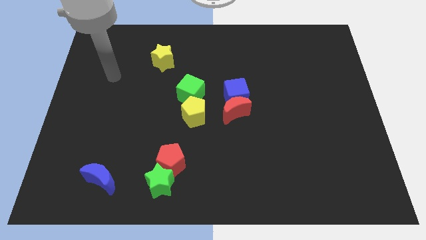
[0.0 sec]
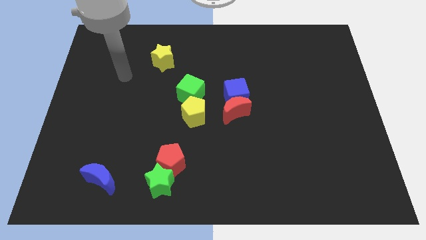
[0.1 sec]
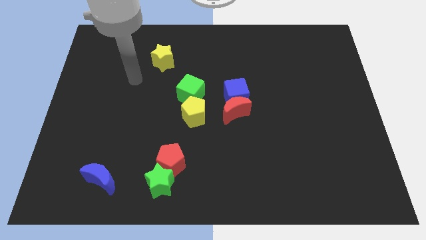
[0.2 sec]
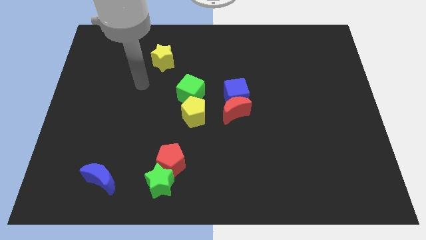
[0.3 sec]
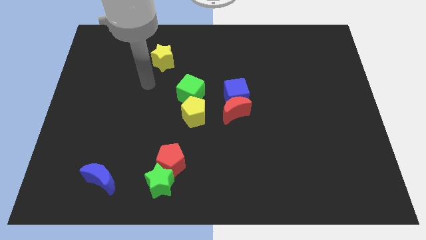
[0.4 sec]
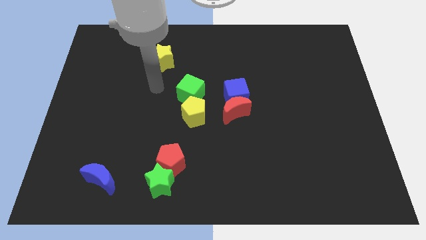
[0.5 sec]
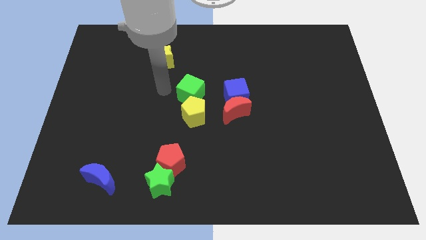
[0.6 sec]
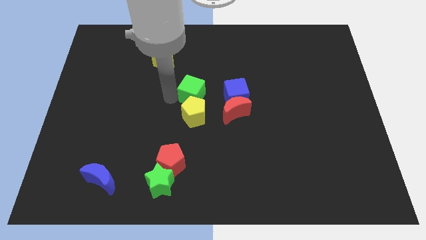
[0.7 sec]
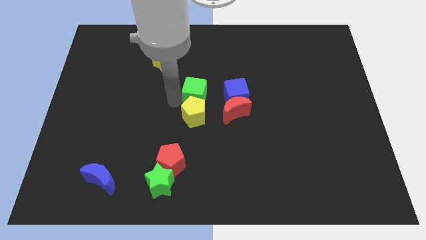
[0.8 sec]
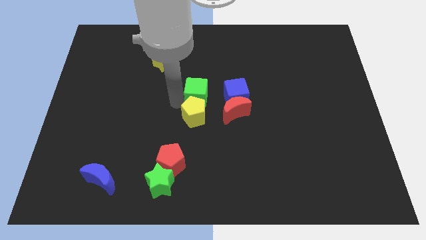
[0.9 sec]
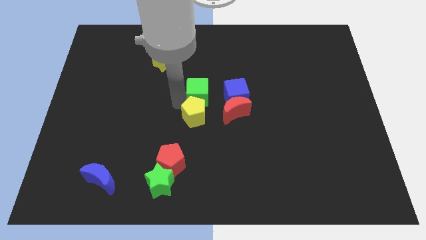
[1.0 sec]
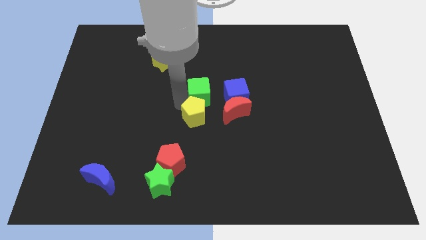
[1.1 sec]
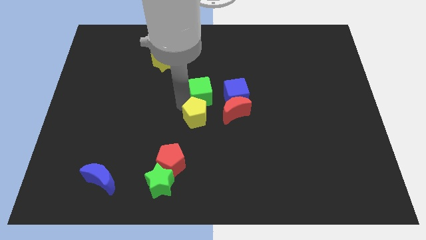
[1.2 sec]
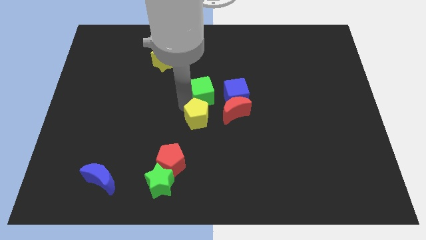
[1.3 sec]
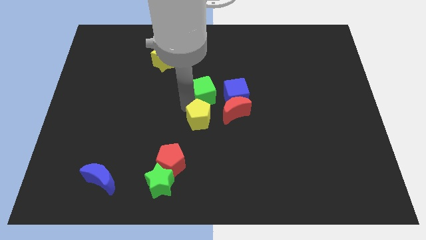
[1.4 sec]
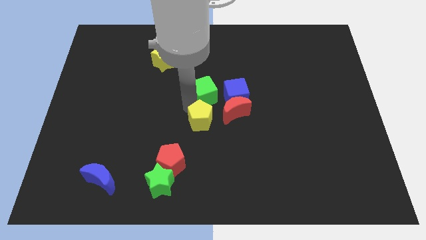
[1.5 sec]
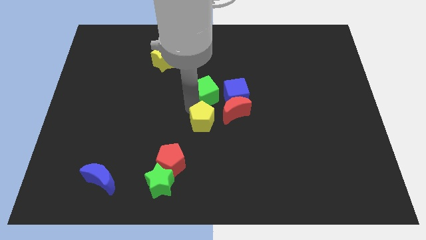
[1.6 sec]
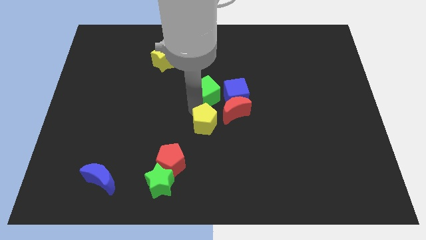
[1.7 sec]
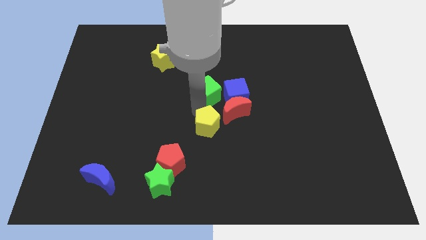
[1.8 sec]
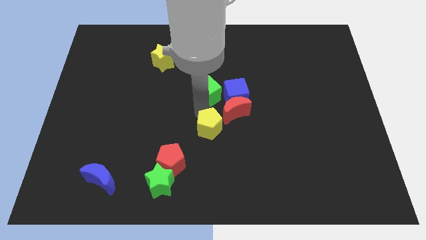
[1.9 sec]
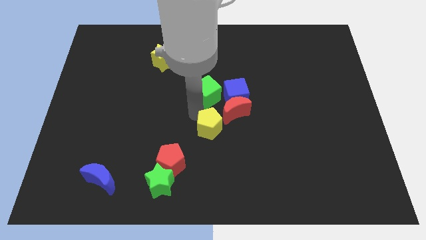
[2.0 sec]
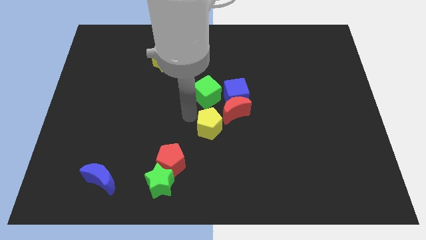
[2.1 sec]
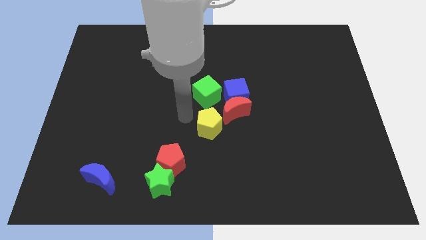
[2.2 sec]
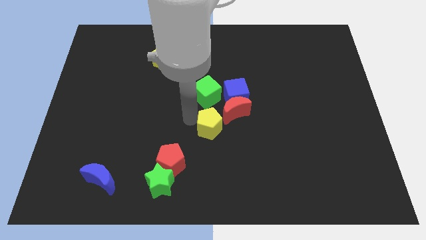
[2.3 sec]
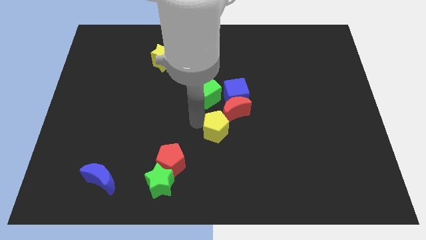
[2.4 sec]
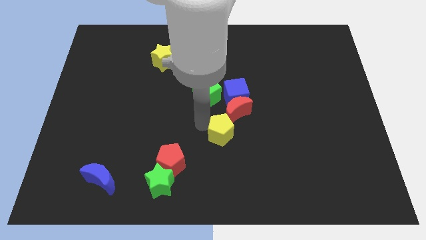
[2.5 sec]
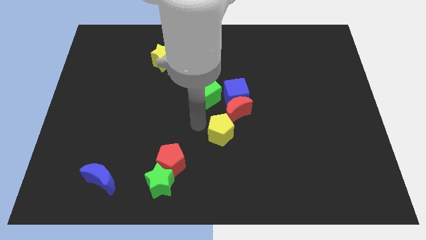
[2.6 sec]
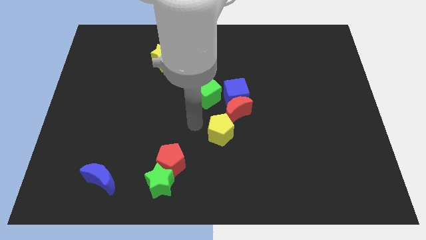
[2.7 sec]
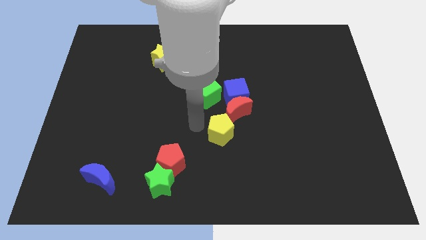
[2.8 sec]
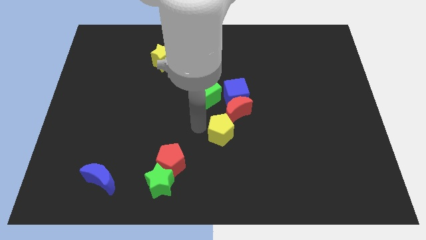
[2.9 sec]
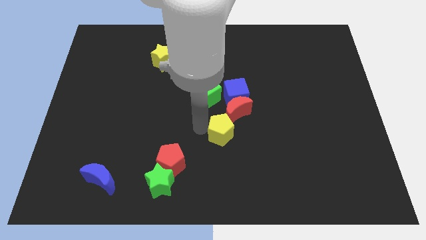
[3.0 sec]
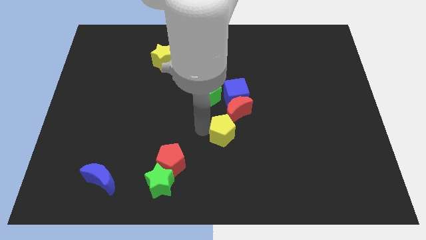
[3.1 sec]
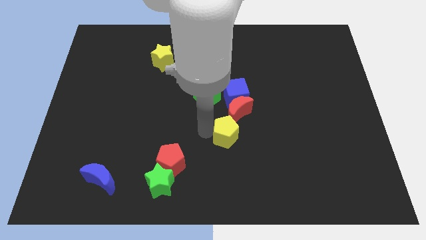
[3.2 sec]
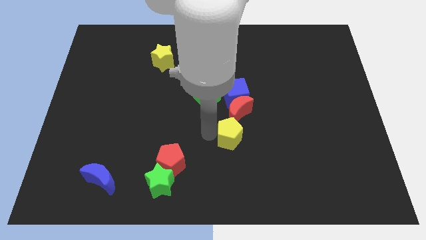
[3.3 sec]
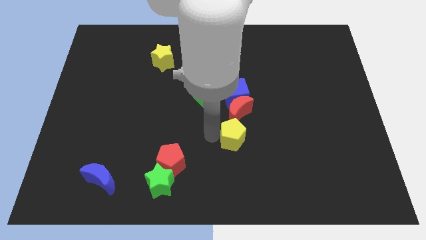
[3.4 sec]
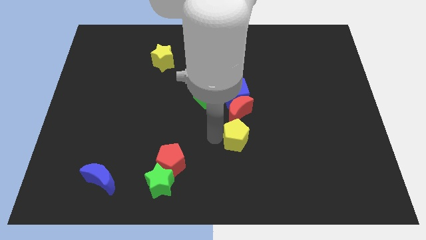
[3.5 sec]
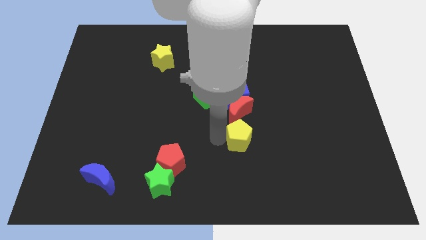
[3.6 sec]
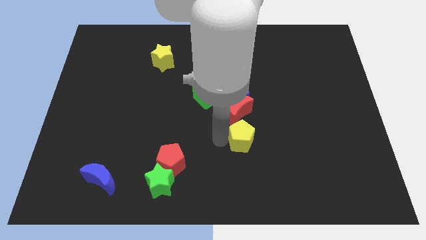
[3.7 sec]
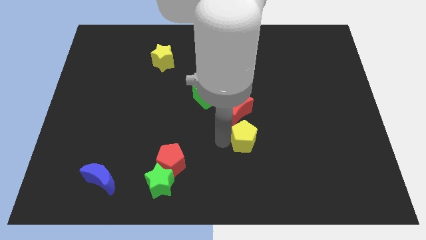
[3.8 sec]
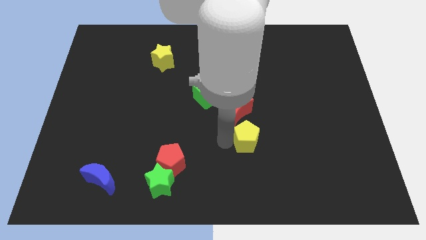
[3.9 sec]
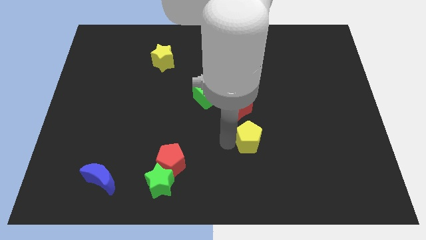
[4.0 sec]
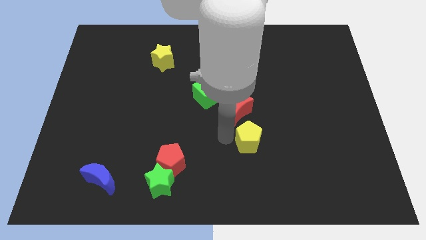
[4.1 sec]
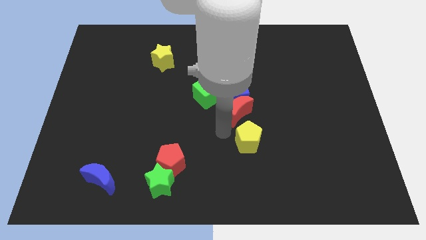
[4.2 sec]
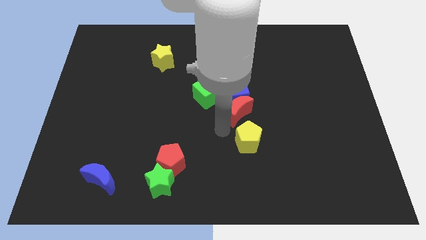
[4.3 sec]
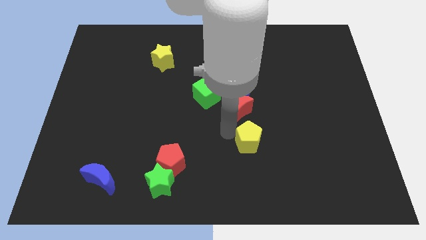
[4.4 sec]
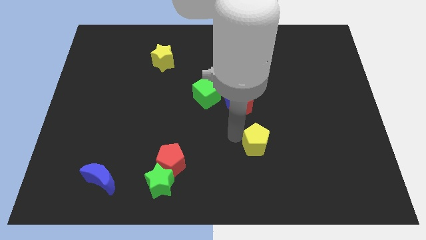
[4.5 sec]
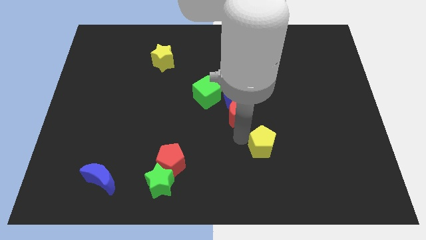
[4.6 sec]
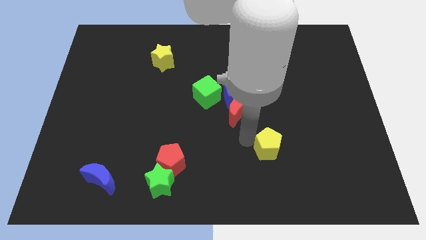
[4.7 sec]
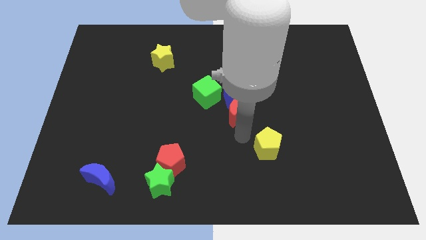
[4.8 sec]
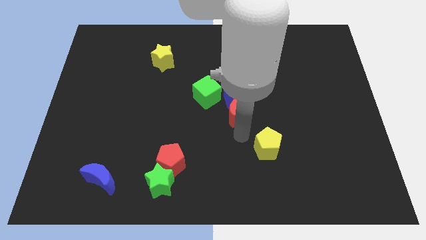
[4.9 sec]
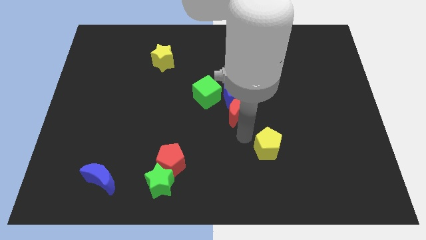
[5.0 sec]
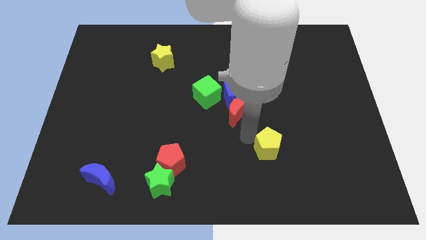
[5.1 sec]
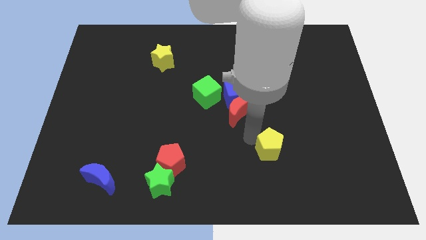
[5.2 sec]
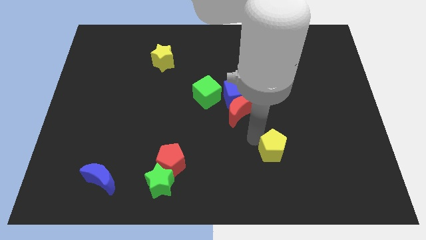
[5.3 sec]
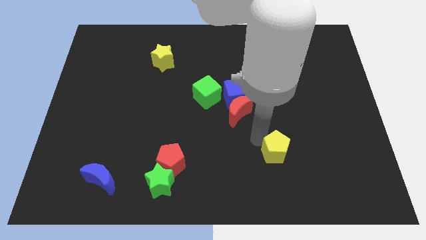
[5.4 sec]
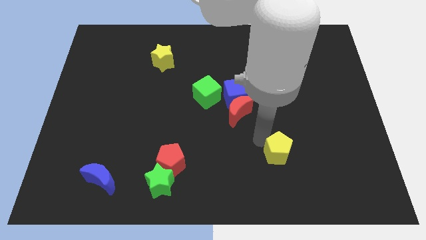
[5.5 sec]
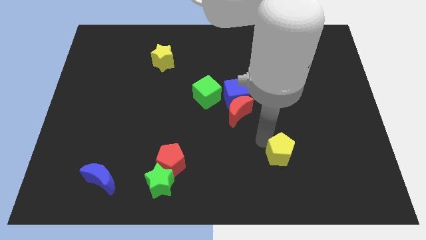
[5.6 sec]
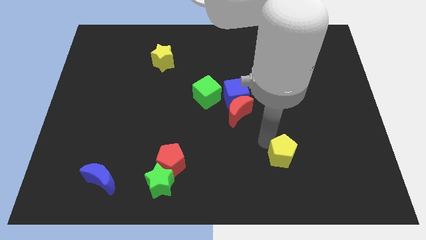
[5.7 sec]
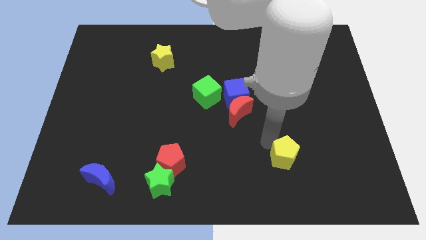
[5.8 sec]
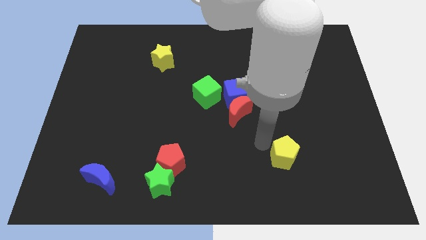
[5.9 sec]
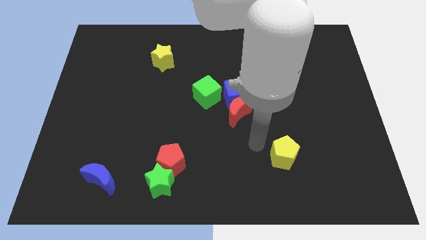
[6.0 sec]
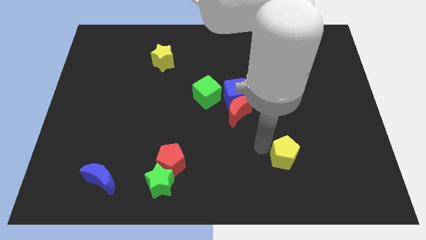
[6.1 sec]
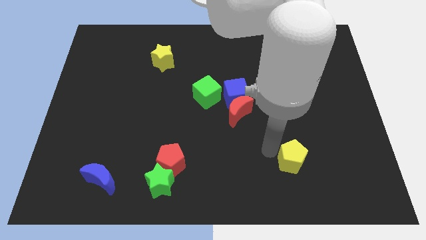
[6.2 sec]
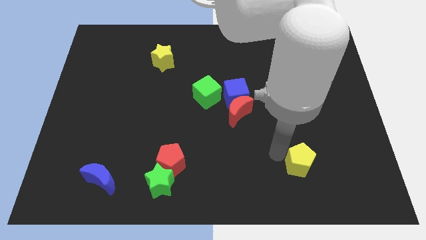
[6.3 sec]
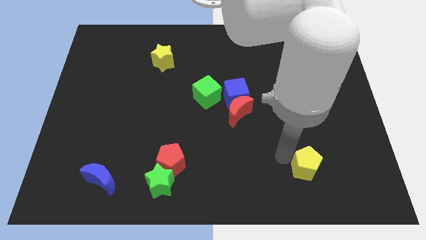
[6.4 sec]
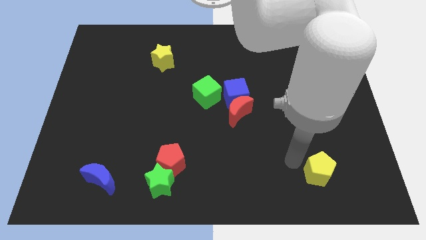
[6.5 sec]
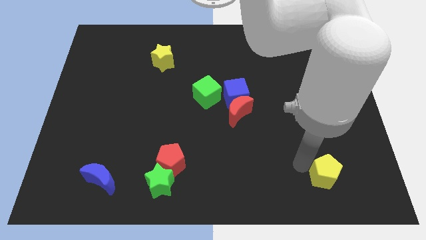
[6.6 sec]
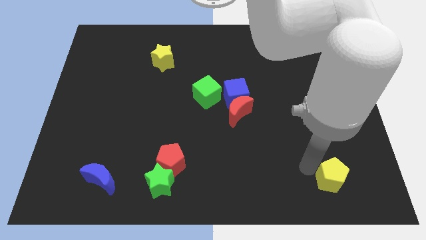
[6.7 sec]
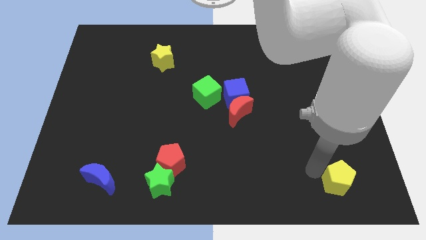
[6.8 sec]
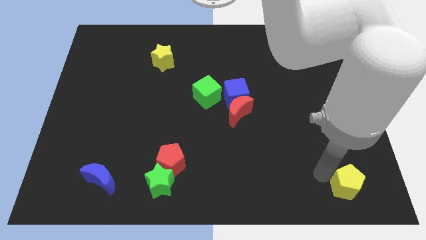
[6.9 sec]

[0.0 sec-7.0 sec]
put the yellow pentagon to the bottom right corner
